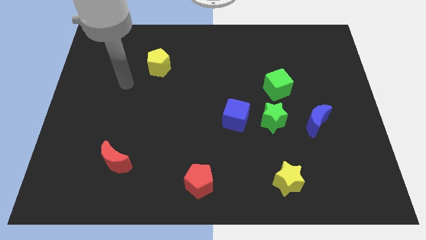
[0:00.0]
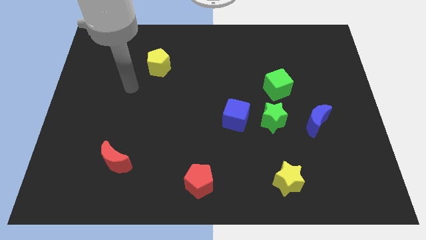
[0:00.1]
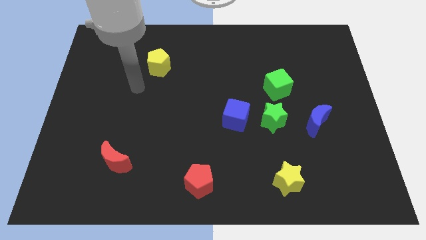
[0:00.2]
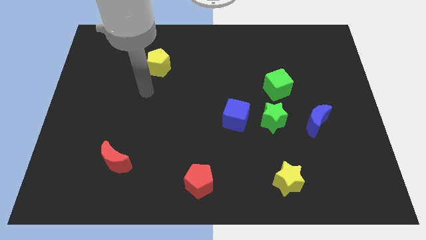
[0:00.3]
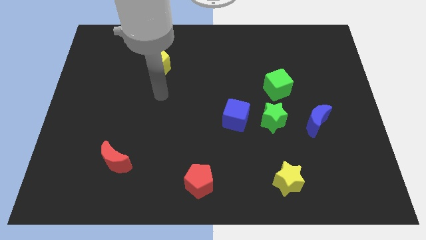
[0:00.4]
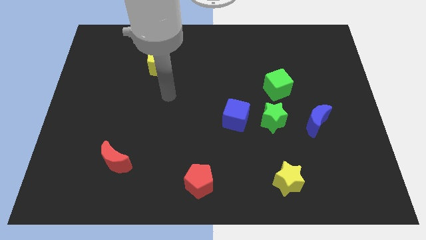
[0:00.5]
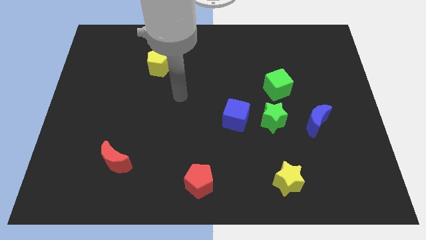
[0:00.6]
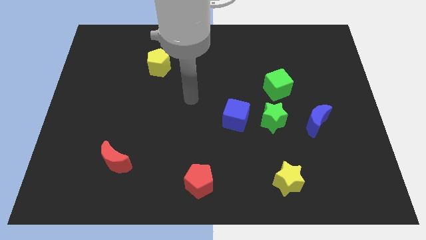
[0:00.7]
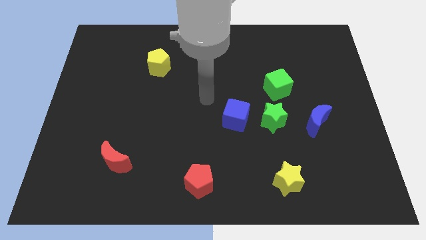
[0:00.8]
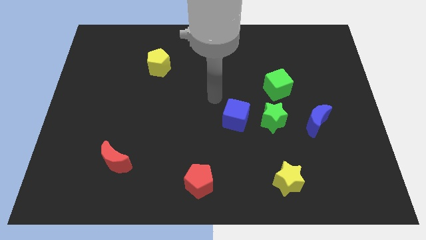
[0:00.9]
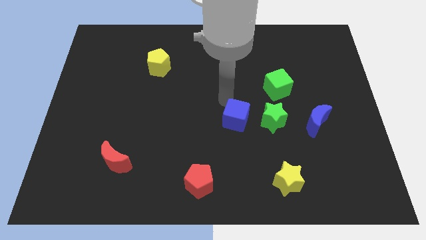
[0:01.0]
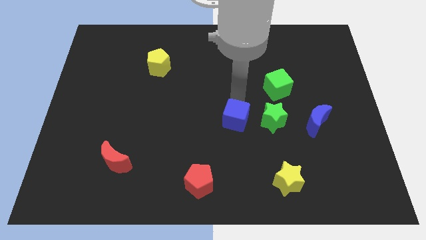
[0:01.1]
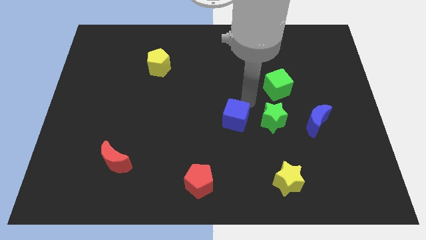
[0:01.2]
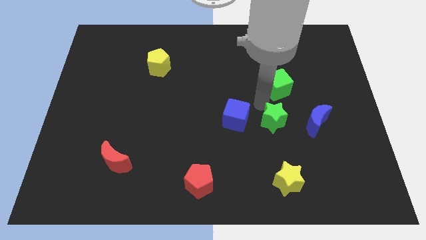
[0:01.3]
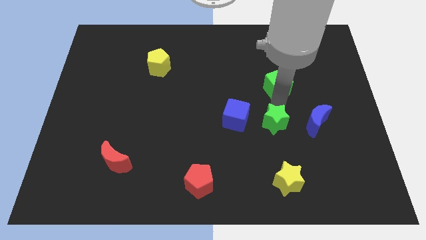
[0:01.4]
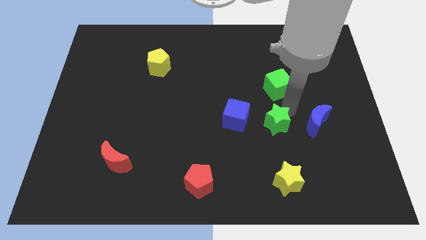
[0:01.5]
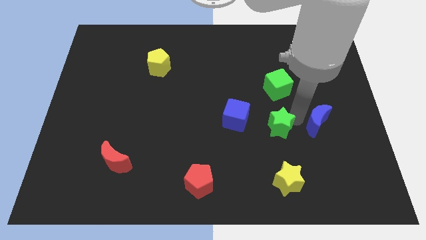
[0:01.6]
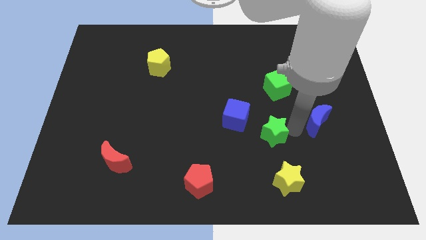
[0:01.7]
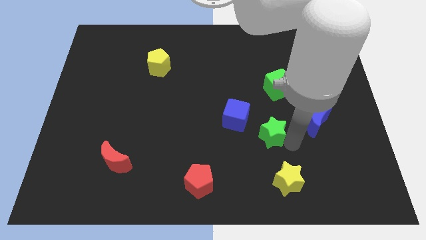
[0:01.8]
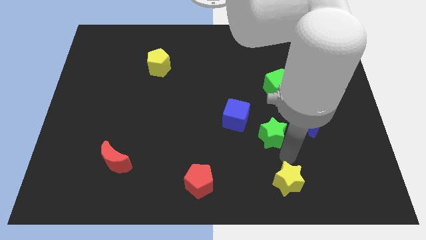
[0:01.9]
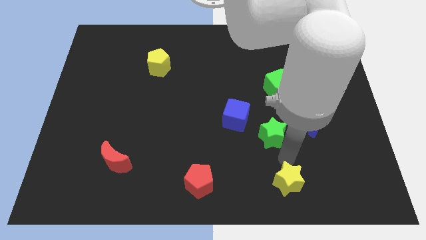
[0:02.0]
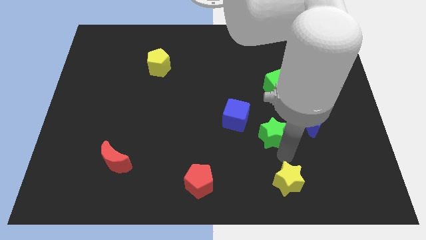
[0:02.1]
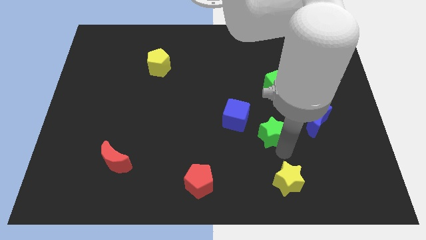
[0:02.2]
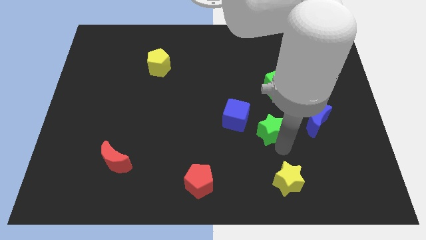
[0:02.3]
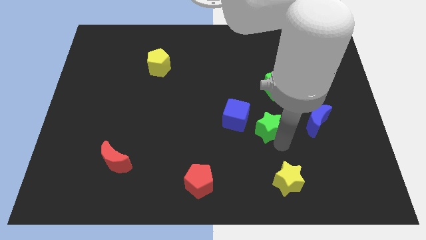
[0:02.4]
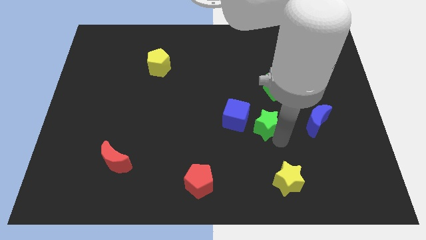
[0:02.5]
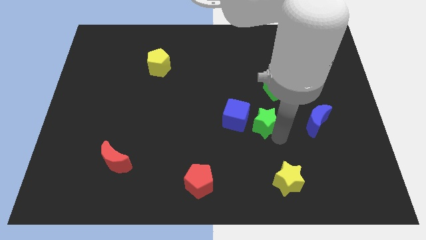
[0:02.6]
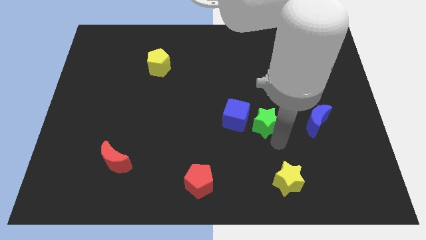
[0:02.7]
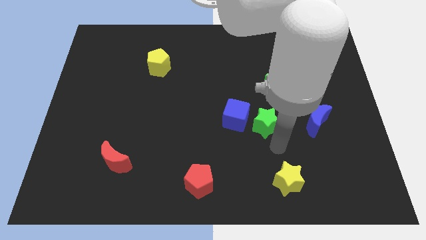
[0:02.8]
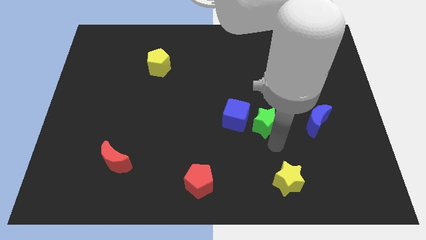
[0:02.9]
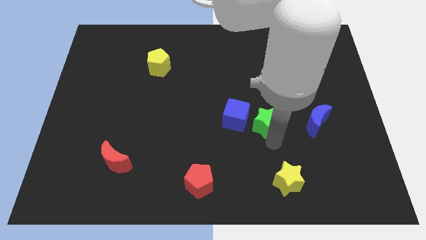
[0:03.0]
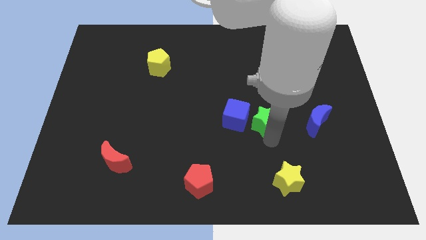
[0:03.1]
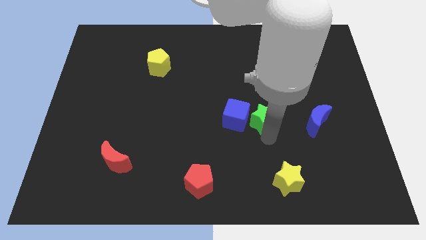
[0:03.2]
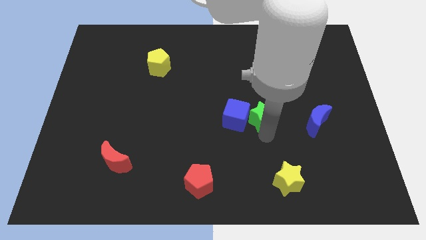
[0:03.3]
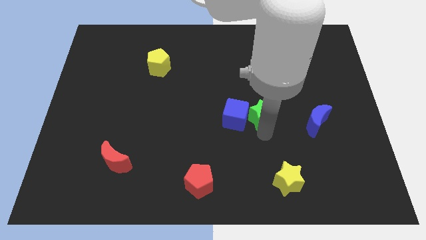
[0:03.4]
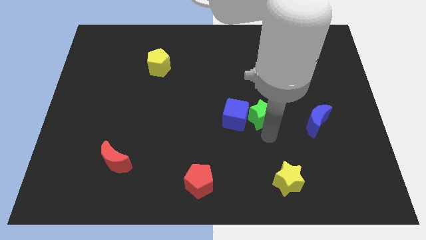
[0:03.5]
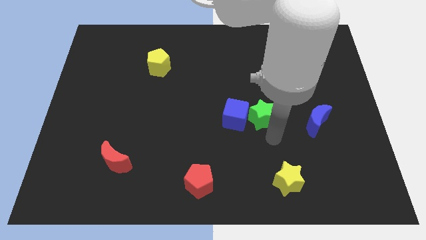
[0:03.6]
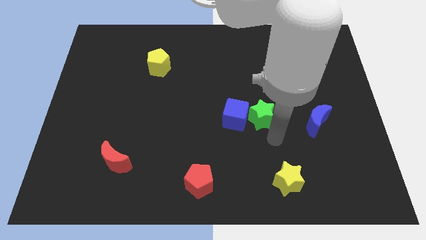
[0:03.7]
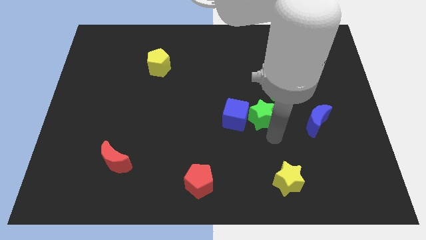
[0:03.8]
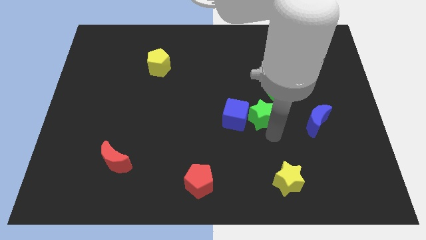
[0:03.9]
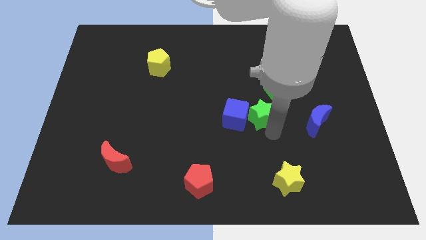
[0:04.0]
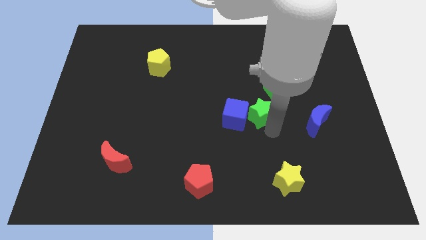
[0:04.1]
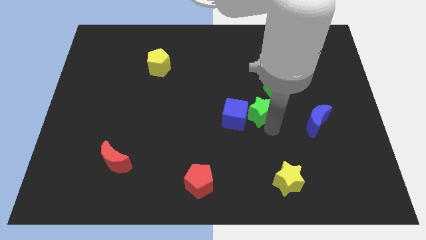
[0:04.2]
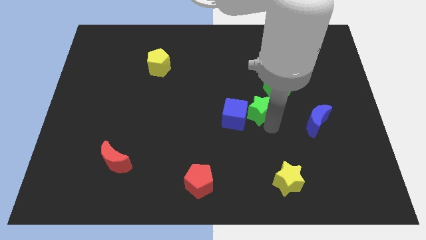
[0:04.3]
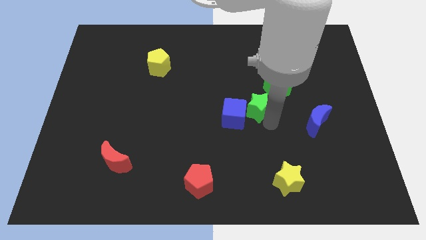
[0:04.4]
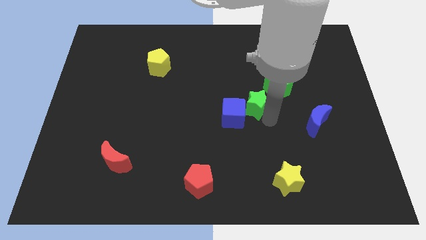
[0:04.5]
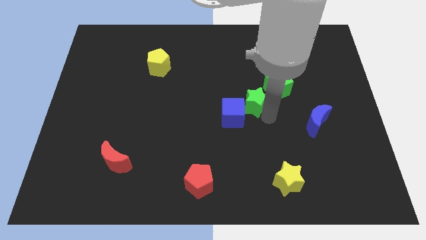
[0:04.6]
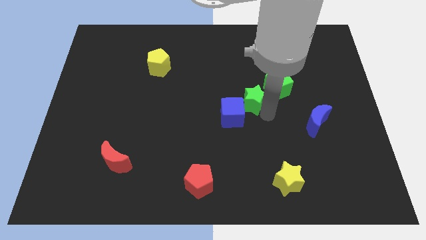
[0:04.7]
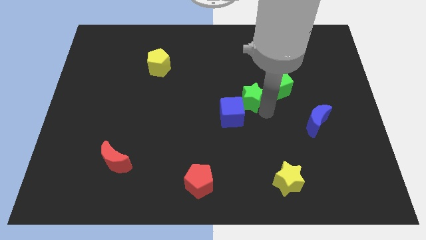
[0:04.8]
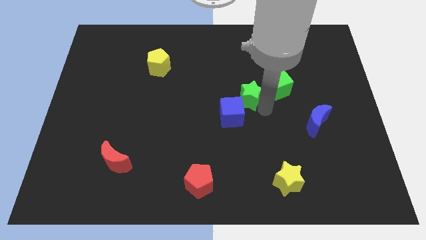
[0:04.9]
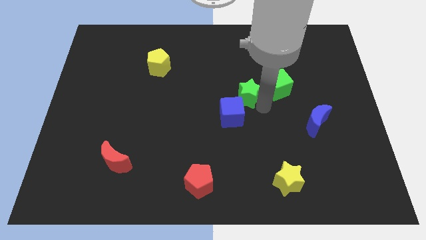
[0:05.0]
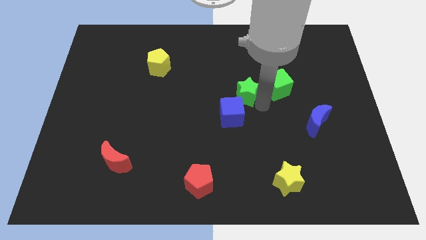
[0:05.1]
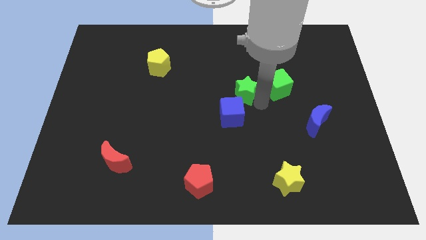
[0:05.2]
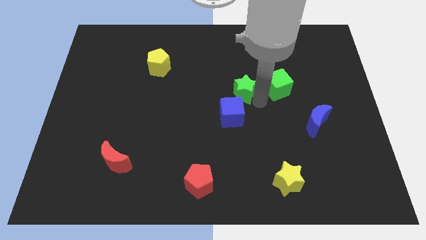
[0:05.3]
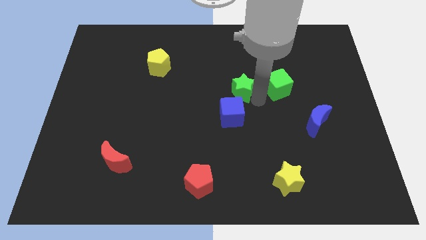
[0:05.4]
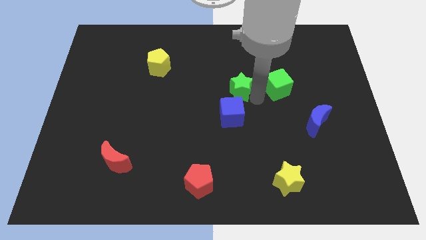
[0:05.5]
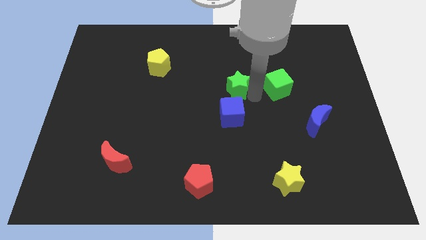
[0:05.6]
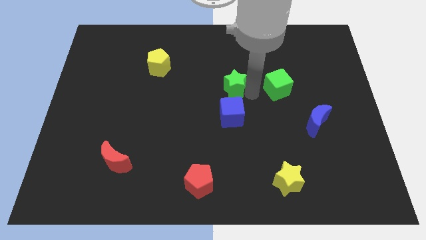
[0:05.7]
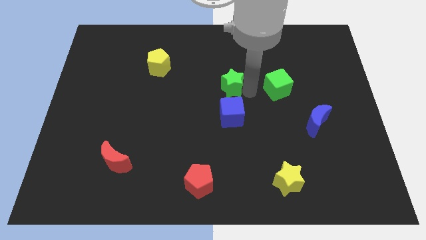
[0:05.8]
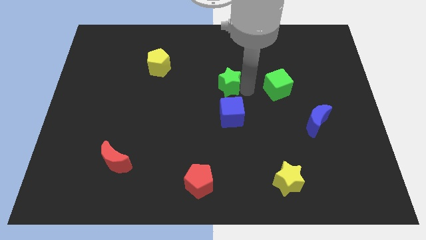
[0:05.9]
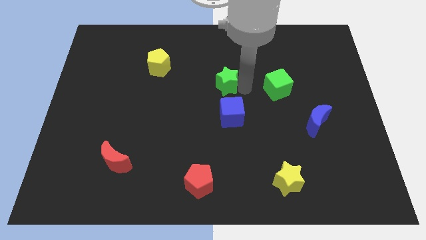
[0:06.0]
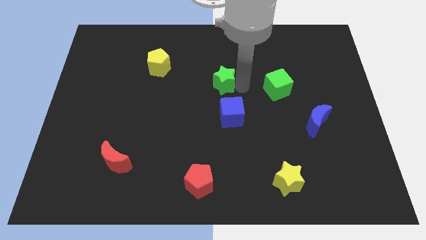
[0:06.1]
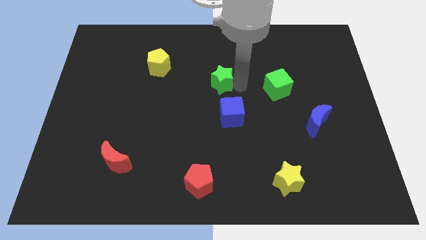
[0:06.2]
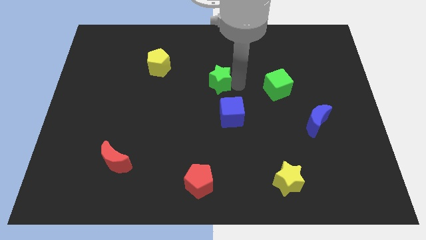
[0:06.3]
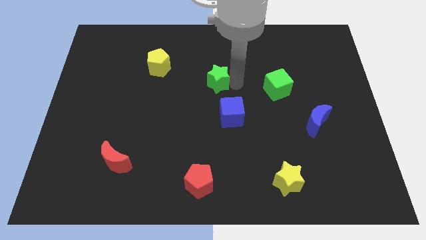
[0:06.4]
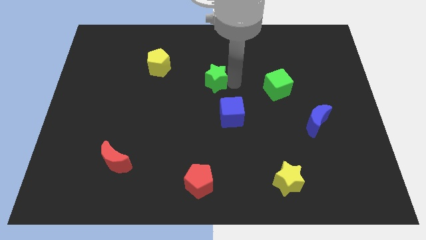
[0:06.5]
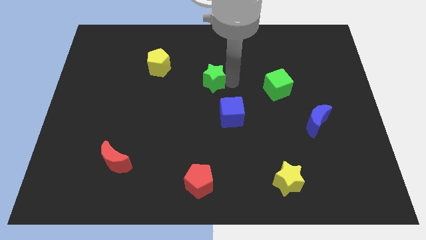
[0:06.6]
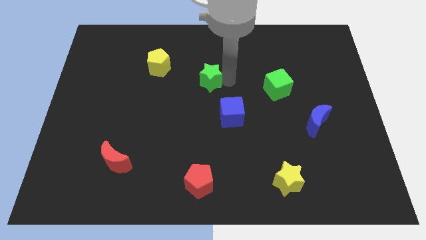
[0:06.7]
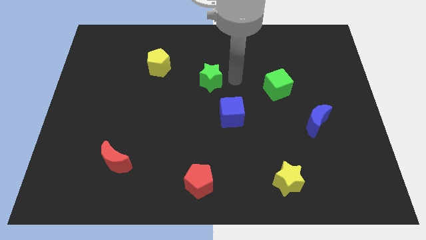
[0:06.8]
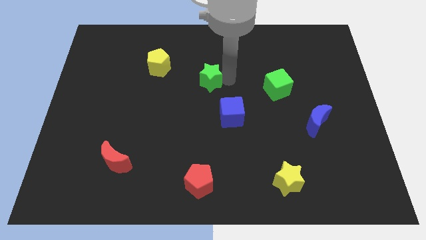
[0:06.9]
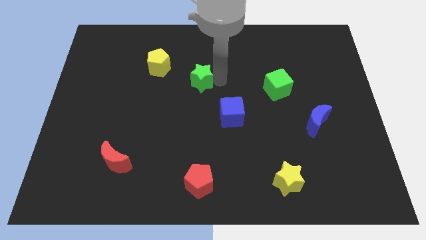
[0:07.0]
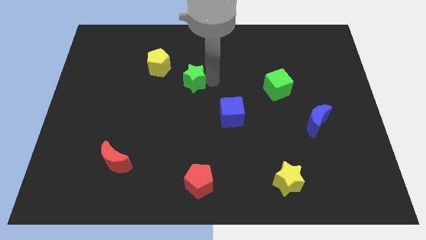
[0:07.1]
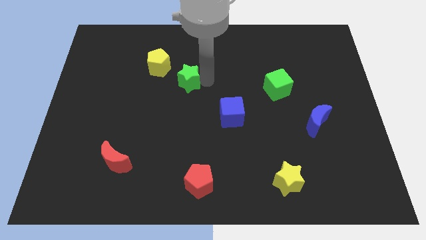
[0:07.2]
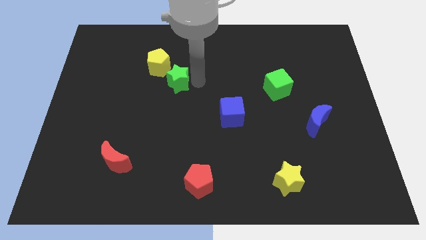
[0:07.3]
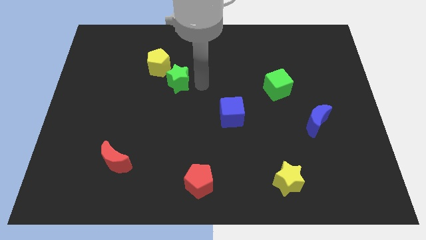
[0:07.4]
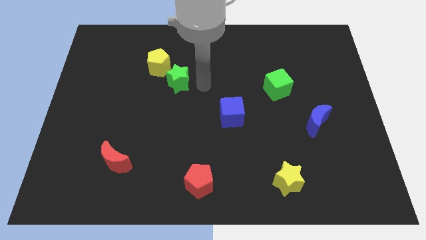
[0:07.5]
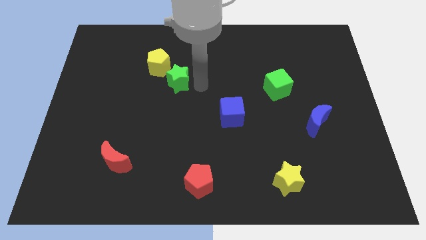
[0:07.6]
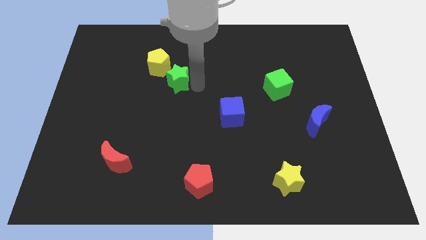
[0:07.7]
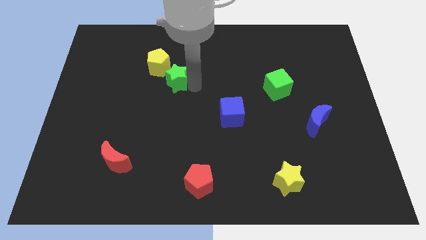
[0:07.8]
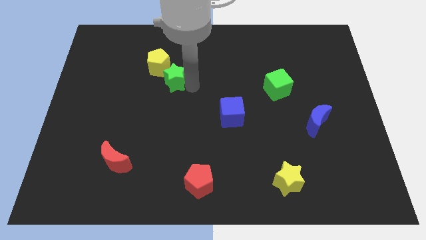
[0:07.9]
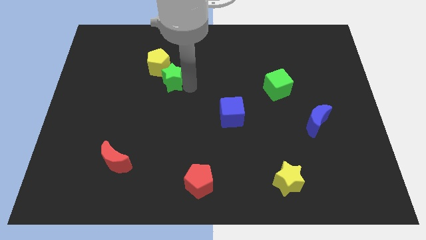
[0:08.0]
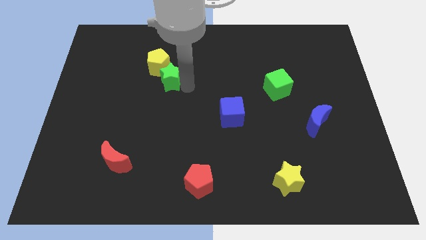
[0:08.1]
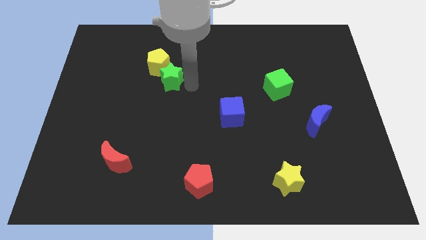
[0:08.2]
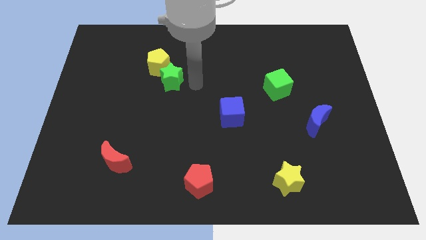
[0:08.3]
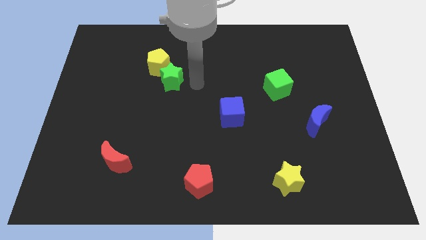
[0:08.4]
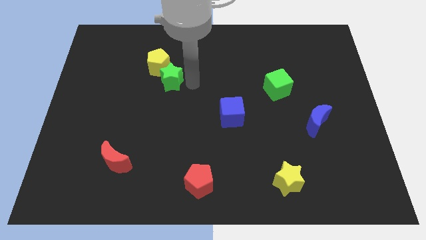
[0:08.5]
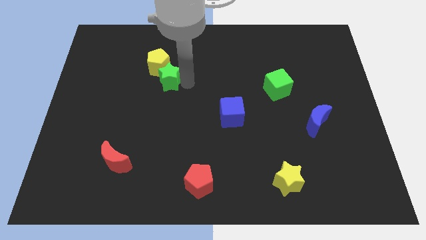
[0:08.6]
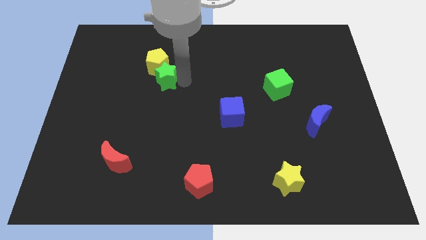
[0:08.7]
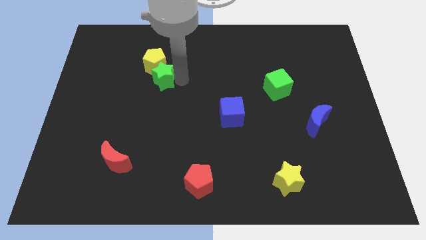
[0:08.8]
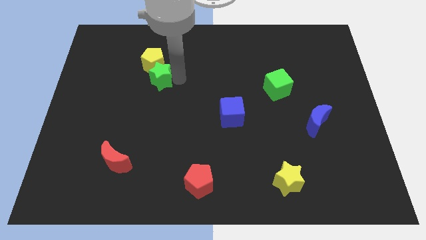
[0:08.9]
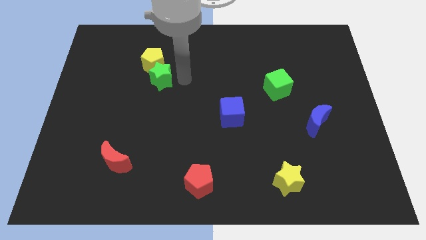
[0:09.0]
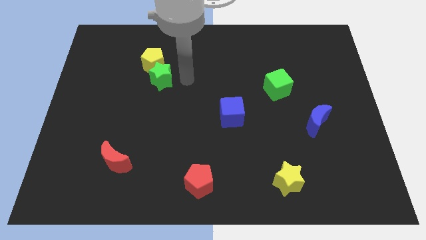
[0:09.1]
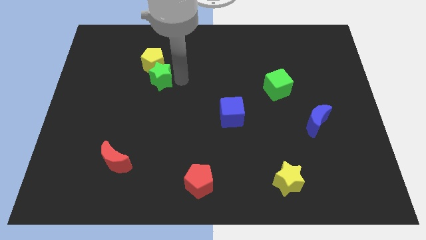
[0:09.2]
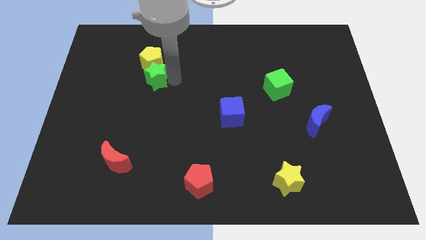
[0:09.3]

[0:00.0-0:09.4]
move the green star diagonally down and to the left of the yellow pentagon
